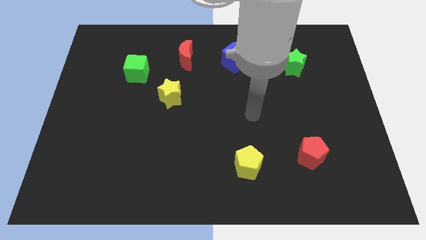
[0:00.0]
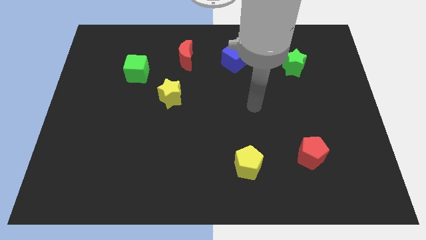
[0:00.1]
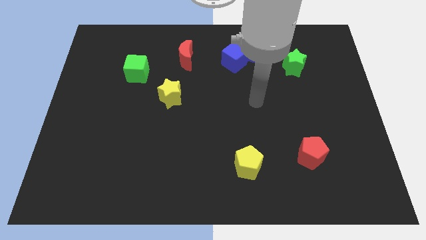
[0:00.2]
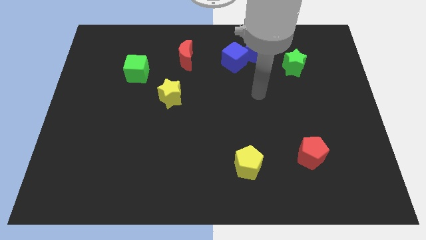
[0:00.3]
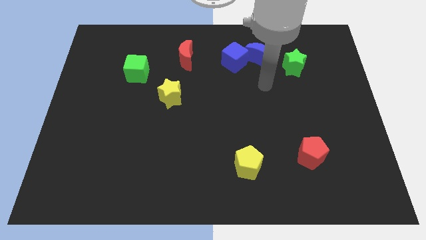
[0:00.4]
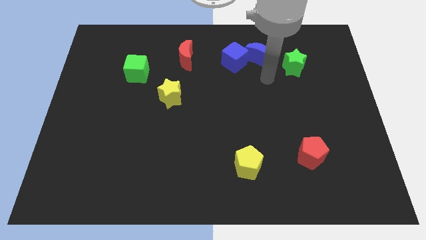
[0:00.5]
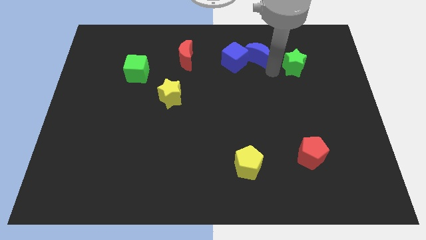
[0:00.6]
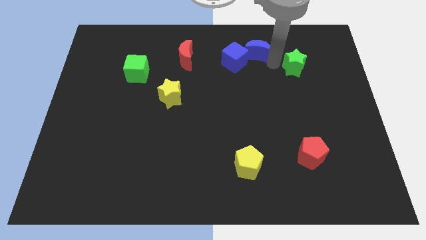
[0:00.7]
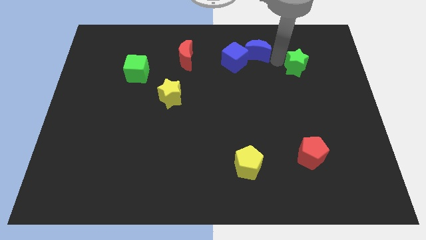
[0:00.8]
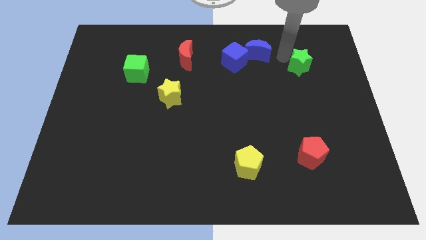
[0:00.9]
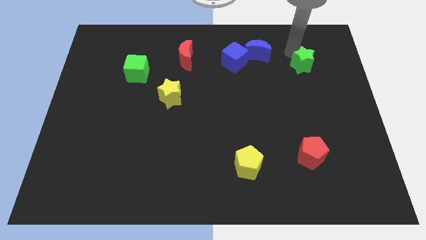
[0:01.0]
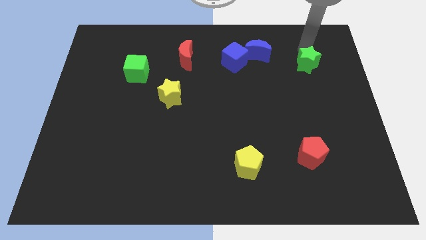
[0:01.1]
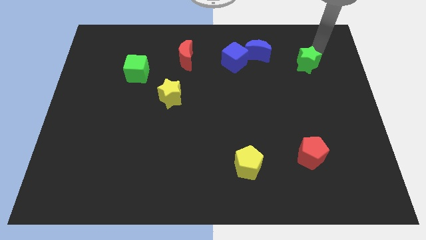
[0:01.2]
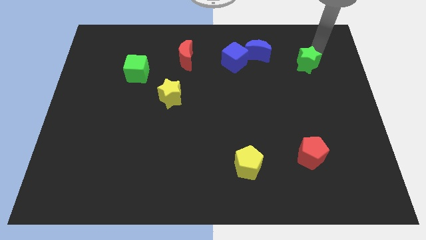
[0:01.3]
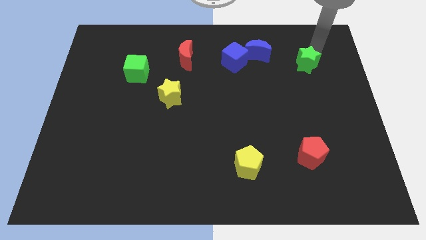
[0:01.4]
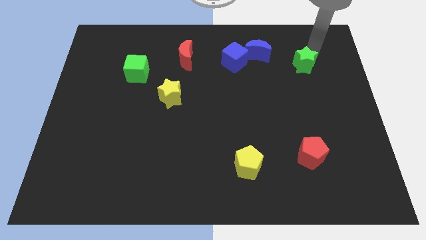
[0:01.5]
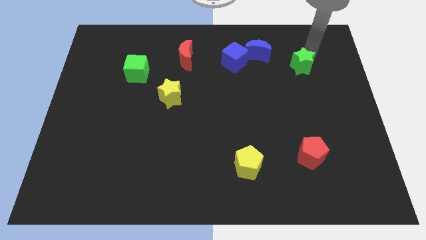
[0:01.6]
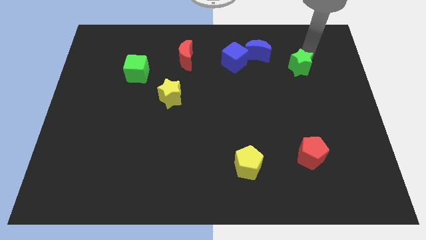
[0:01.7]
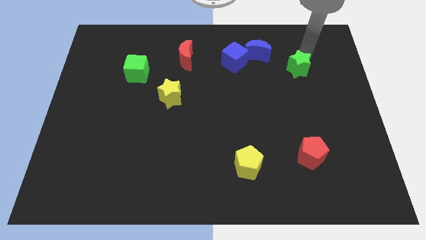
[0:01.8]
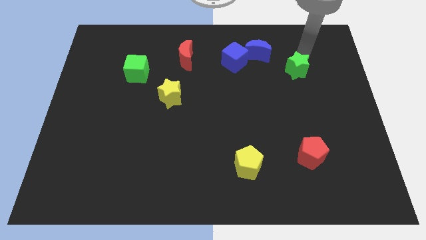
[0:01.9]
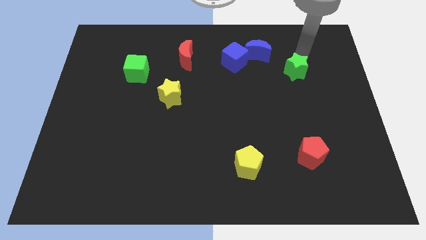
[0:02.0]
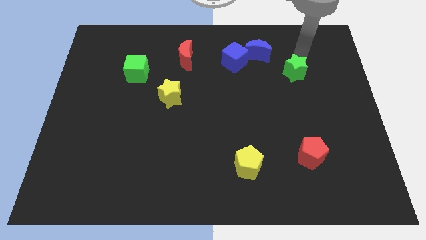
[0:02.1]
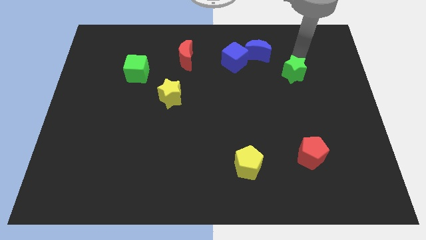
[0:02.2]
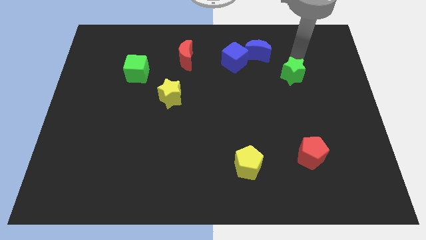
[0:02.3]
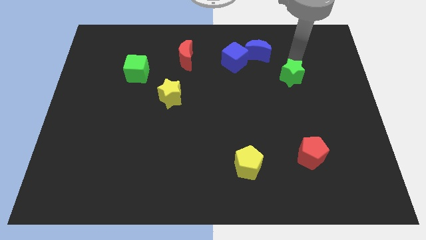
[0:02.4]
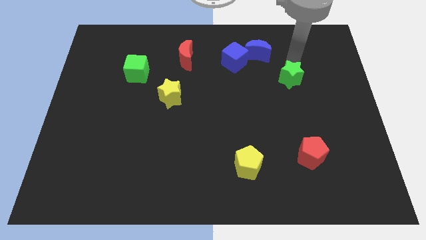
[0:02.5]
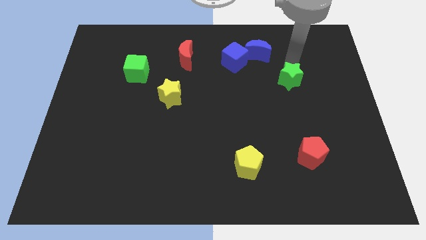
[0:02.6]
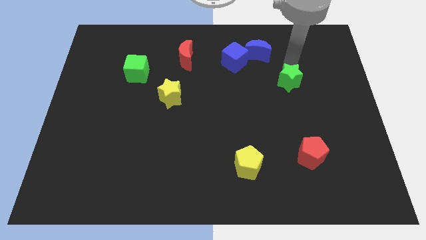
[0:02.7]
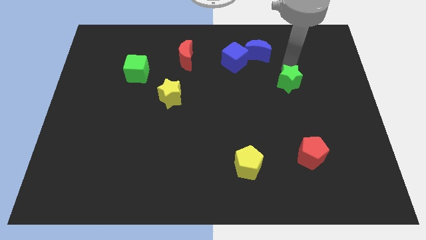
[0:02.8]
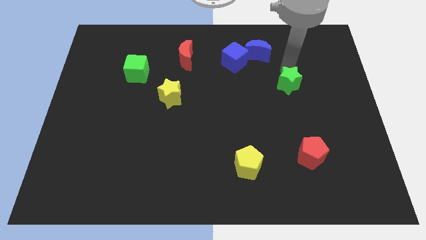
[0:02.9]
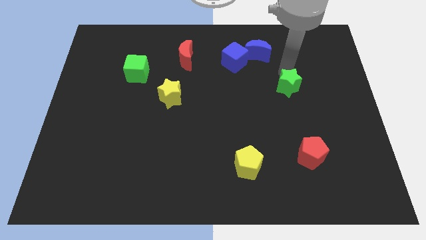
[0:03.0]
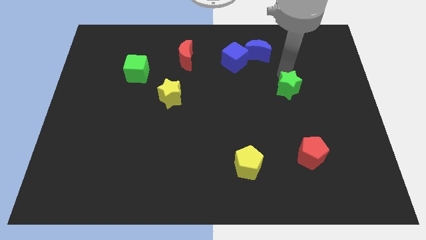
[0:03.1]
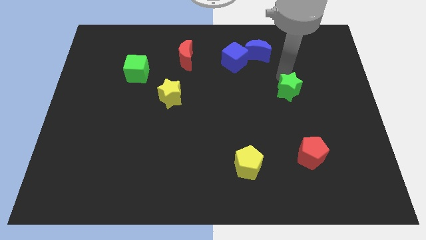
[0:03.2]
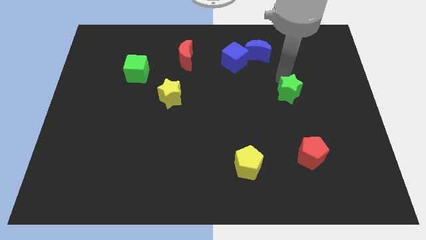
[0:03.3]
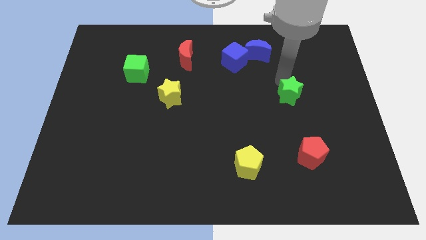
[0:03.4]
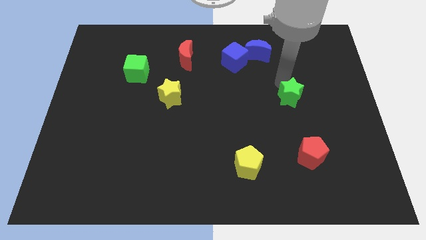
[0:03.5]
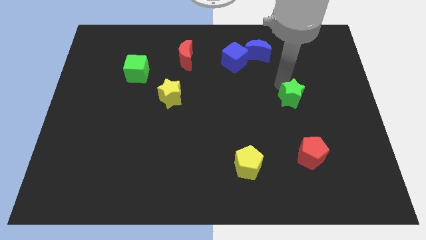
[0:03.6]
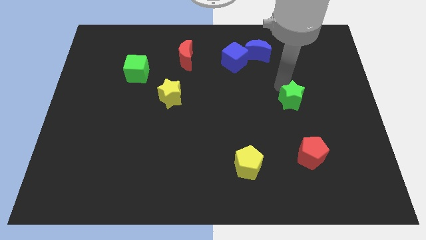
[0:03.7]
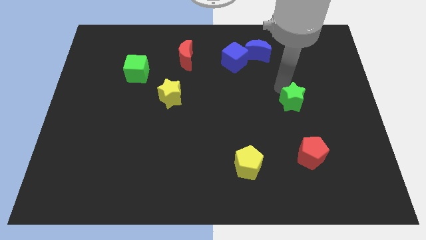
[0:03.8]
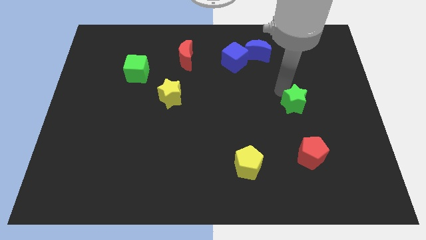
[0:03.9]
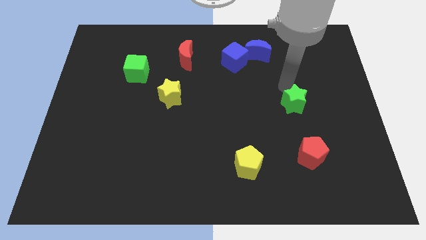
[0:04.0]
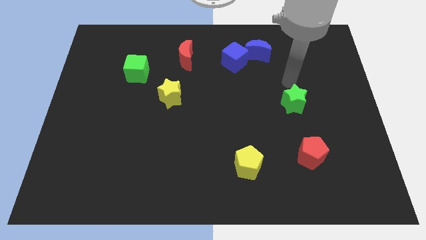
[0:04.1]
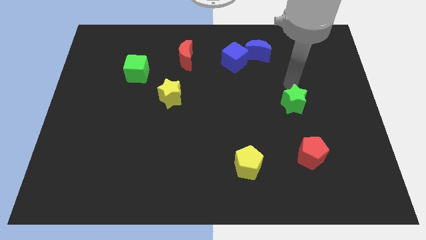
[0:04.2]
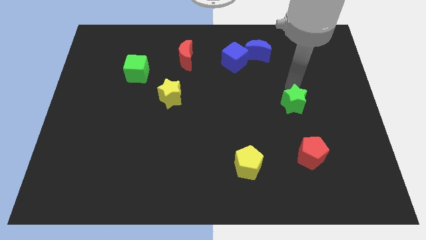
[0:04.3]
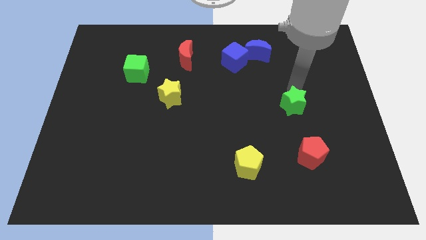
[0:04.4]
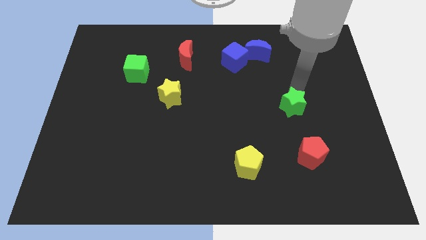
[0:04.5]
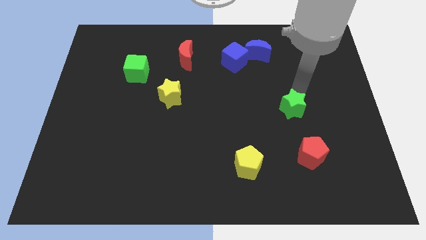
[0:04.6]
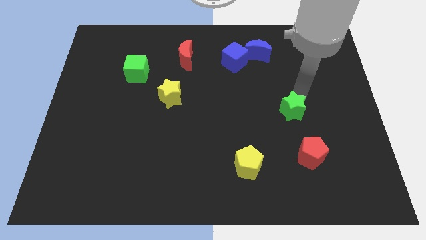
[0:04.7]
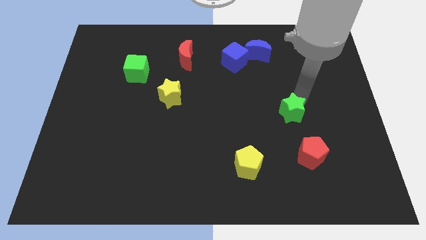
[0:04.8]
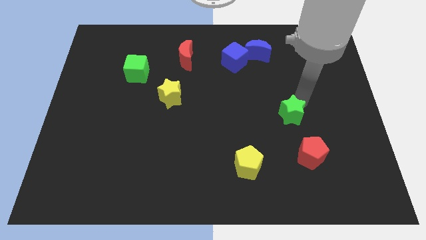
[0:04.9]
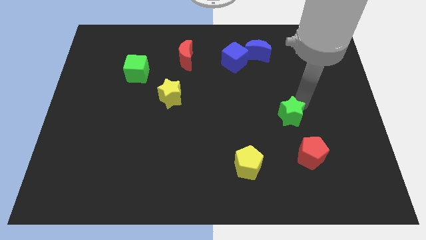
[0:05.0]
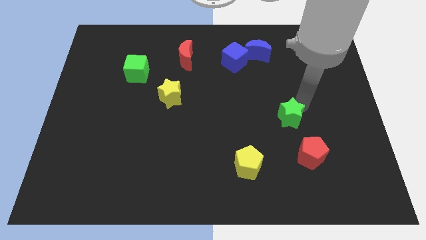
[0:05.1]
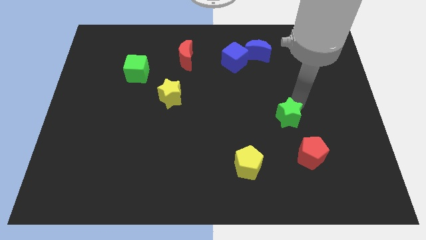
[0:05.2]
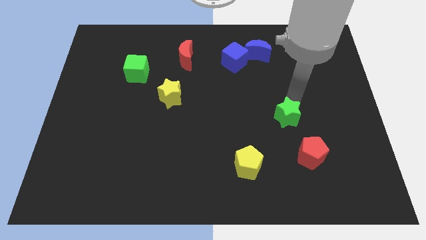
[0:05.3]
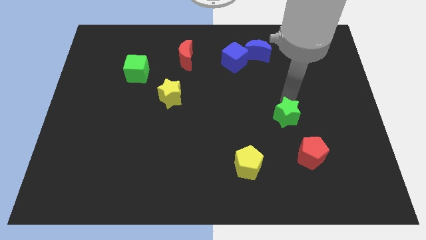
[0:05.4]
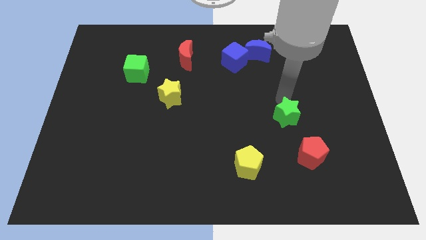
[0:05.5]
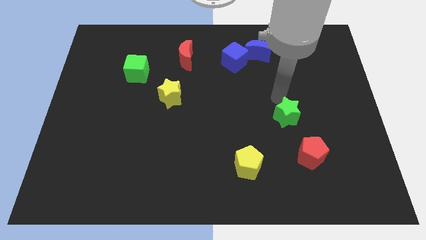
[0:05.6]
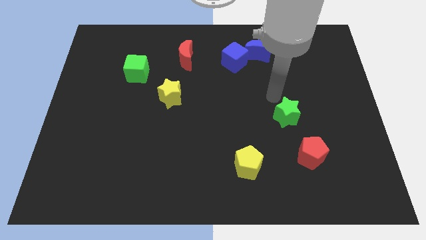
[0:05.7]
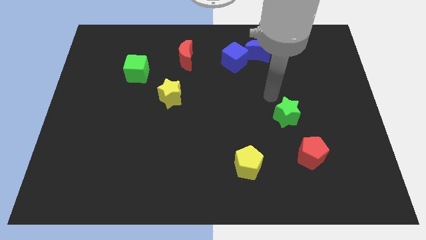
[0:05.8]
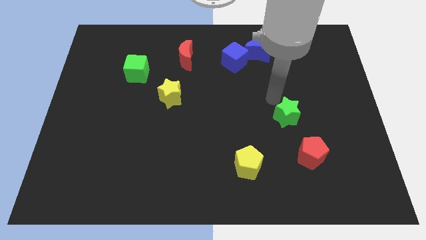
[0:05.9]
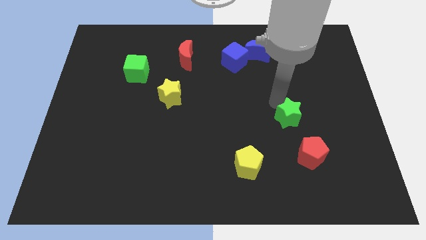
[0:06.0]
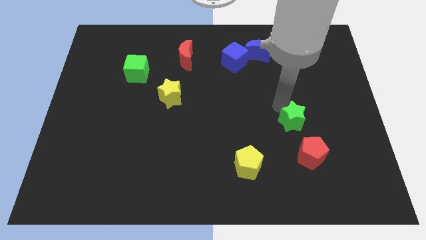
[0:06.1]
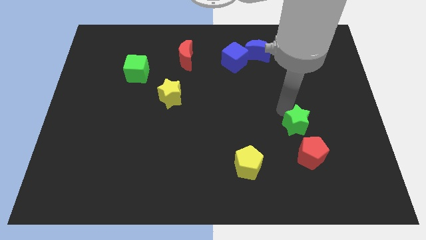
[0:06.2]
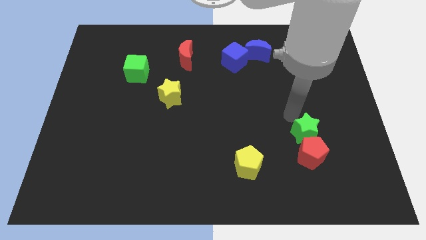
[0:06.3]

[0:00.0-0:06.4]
slide the green star to the red pentagon

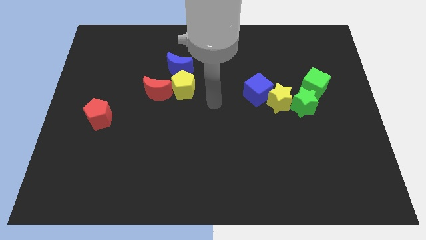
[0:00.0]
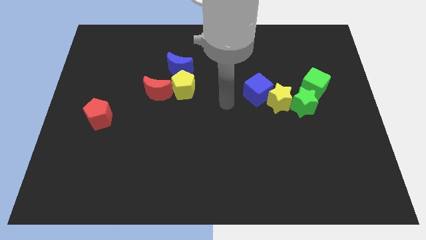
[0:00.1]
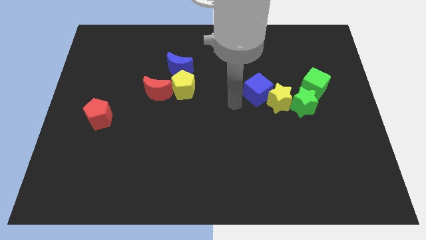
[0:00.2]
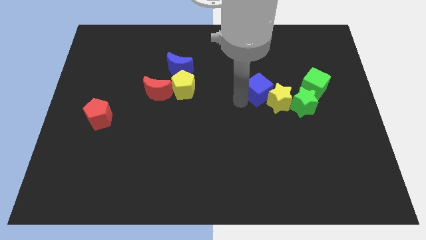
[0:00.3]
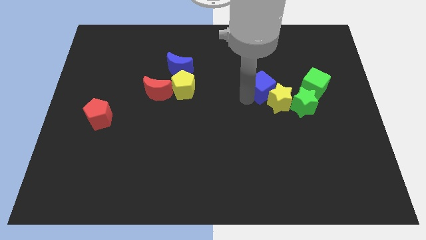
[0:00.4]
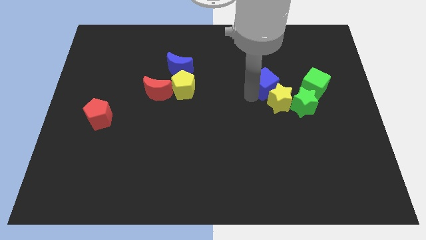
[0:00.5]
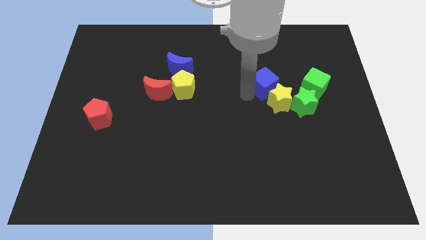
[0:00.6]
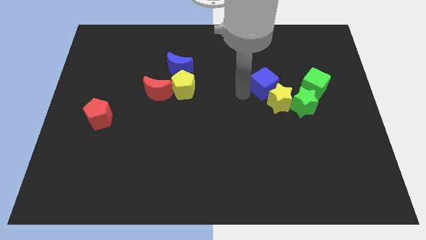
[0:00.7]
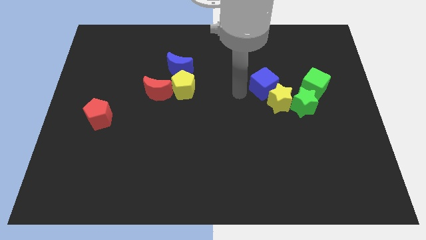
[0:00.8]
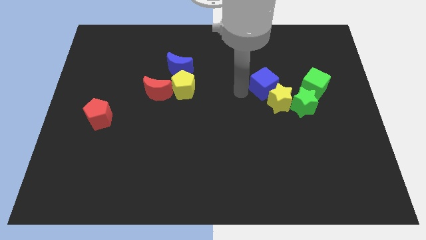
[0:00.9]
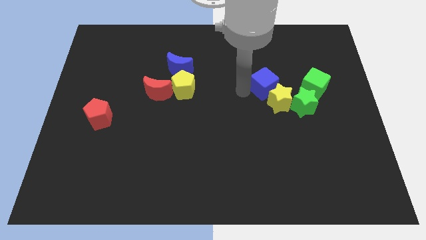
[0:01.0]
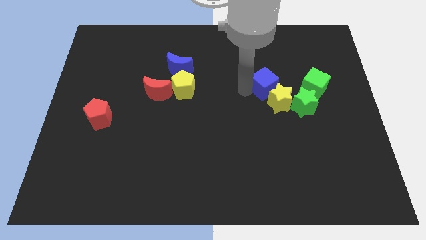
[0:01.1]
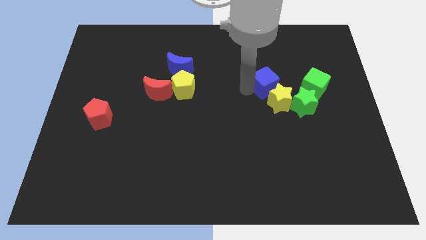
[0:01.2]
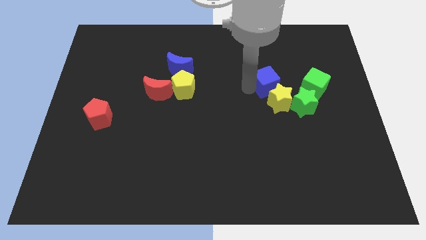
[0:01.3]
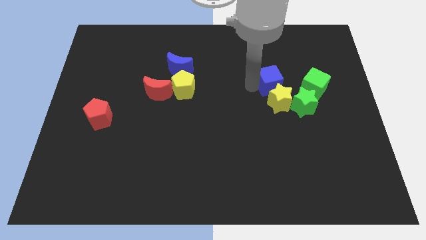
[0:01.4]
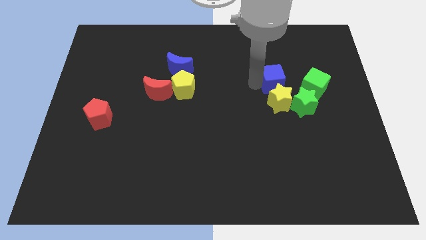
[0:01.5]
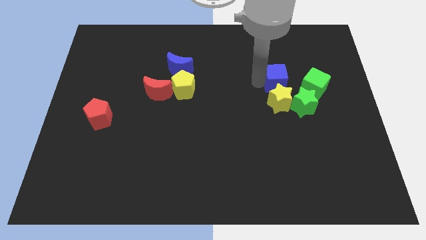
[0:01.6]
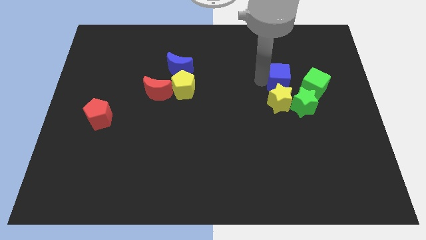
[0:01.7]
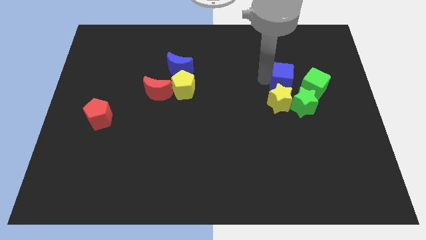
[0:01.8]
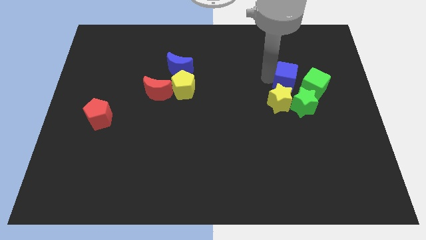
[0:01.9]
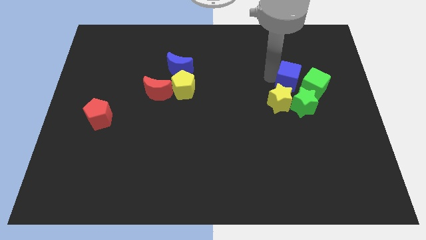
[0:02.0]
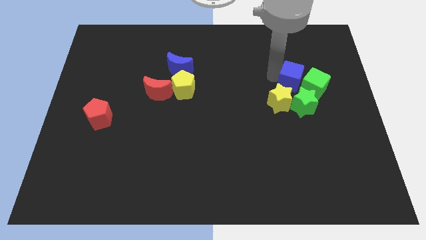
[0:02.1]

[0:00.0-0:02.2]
move the blue cube next to the green cube
